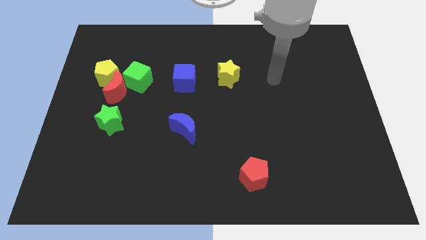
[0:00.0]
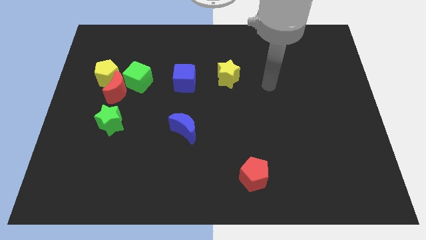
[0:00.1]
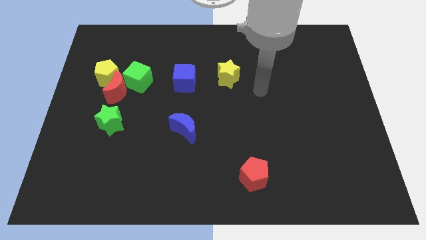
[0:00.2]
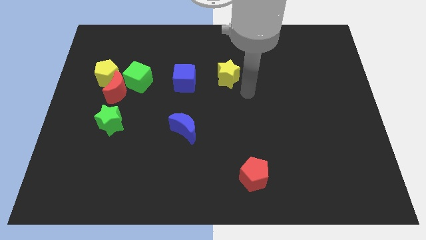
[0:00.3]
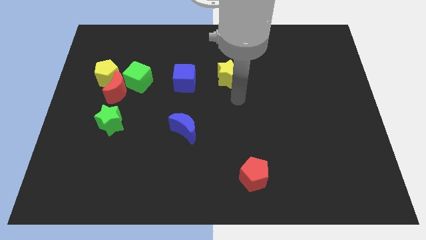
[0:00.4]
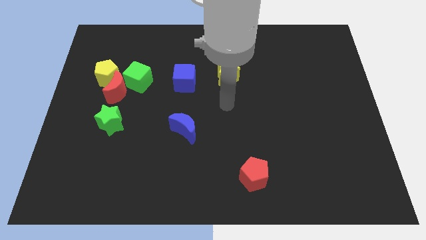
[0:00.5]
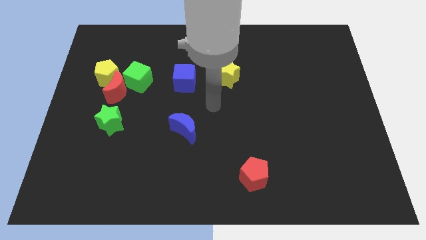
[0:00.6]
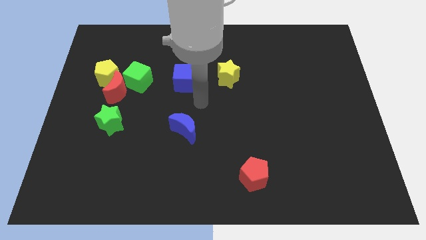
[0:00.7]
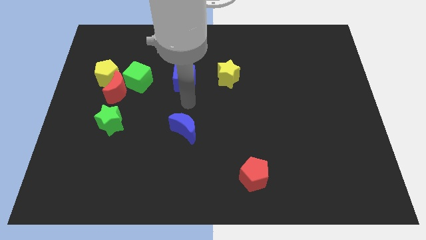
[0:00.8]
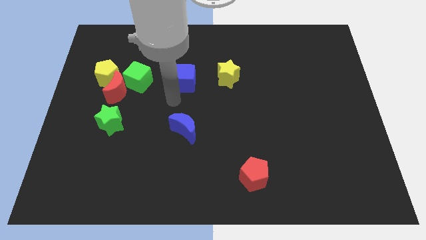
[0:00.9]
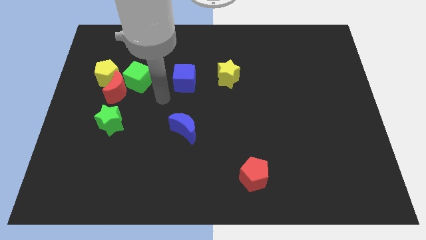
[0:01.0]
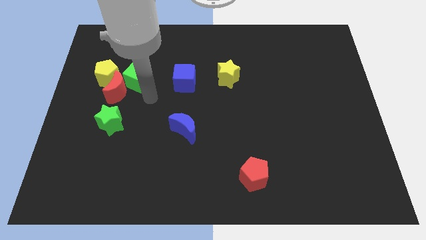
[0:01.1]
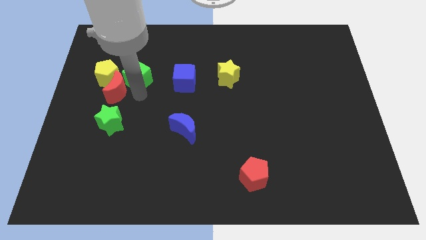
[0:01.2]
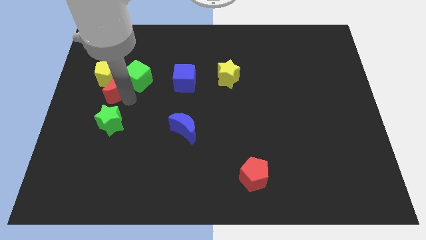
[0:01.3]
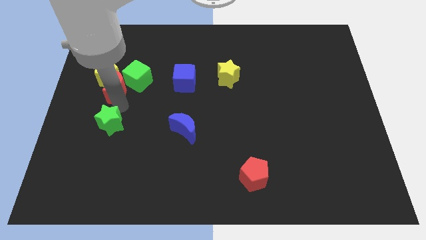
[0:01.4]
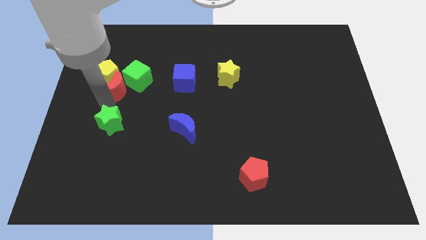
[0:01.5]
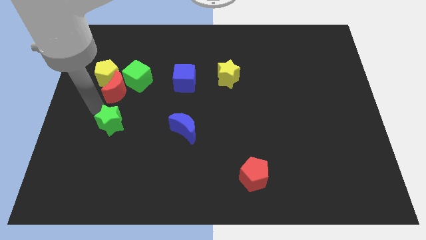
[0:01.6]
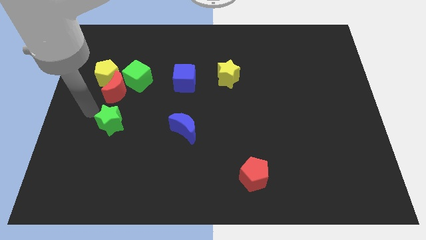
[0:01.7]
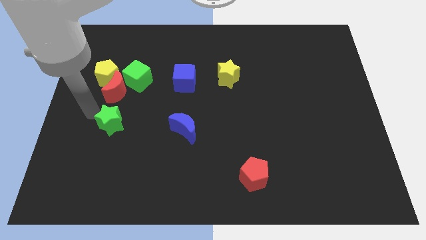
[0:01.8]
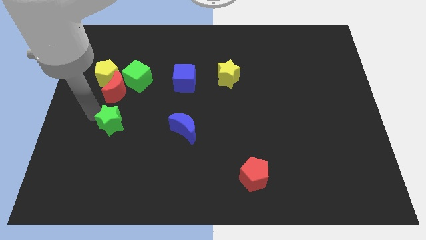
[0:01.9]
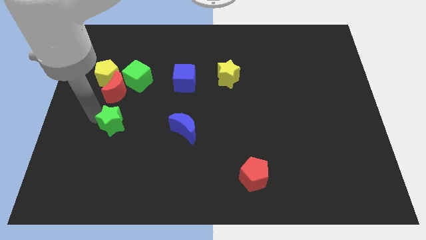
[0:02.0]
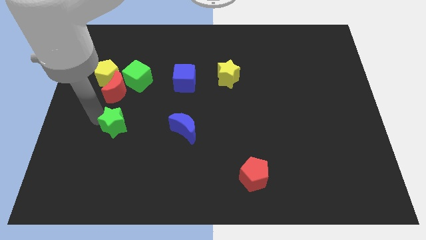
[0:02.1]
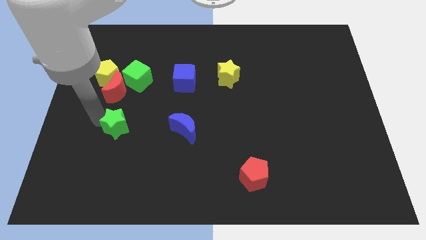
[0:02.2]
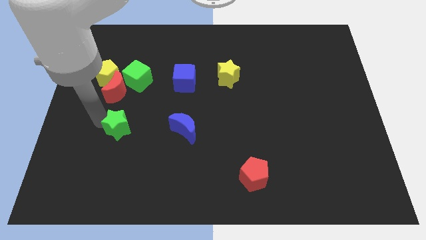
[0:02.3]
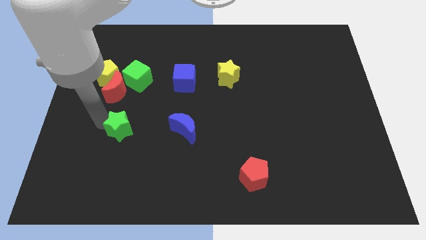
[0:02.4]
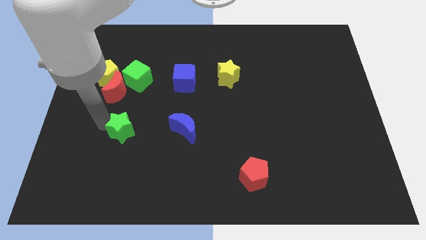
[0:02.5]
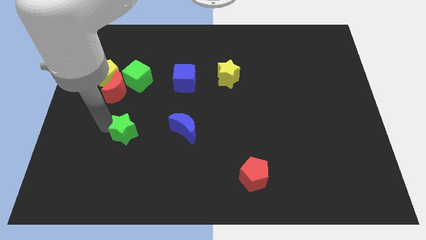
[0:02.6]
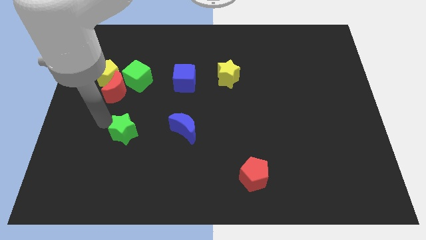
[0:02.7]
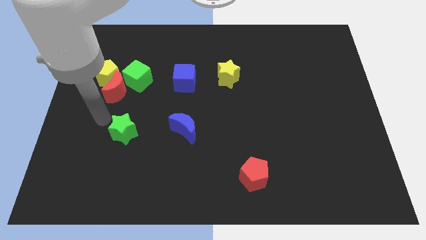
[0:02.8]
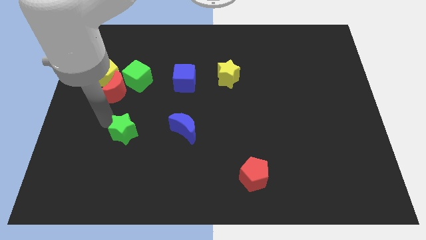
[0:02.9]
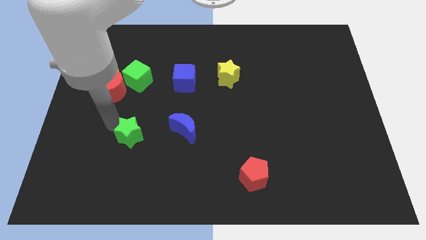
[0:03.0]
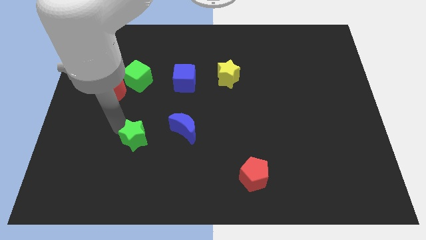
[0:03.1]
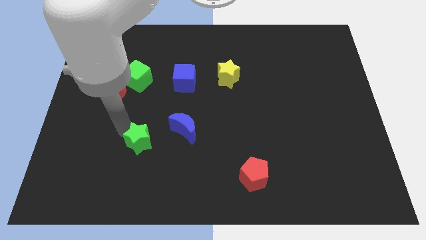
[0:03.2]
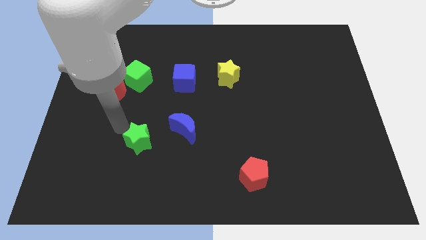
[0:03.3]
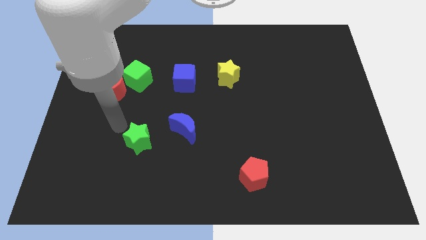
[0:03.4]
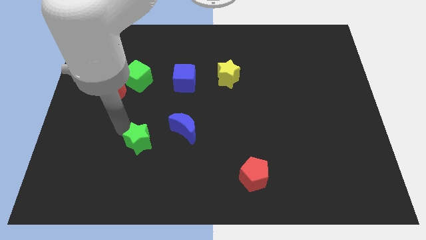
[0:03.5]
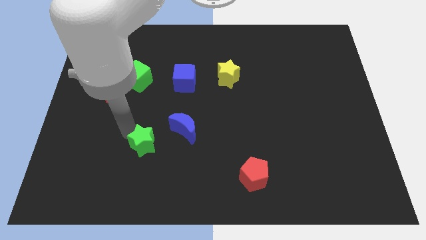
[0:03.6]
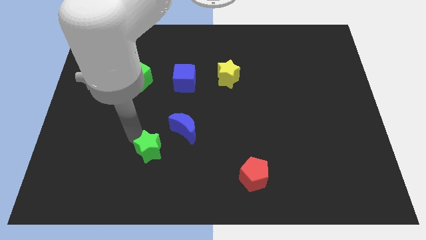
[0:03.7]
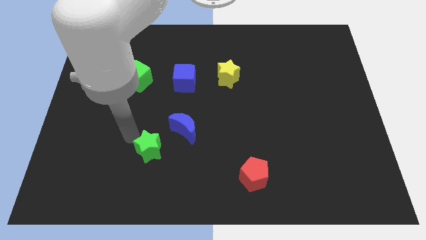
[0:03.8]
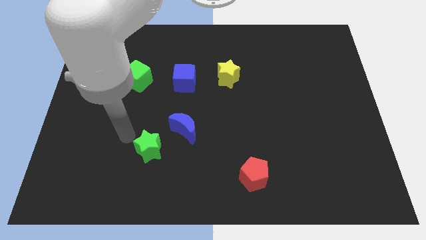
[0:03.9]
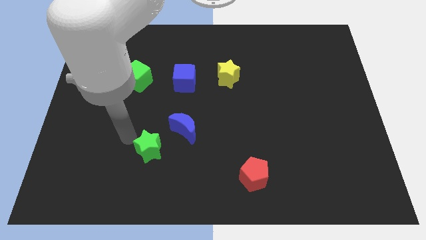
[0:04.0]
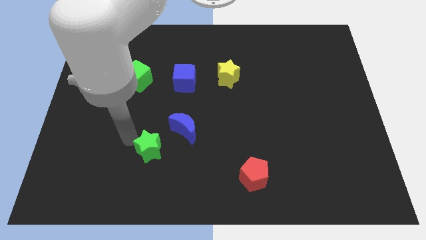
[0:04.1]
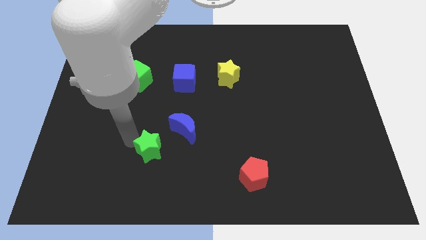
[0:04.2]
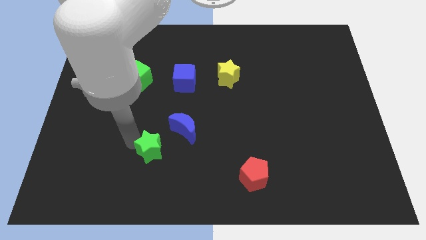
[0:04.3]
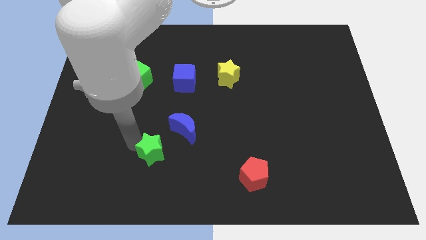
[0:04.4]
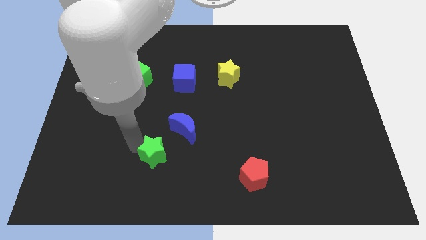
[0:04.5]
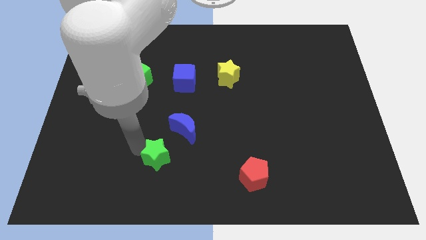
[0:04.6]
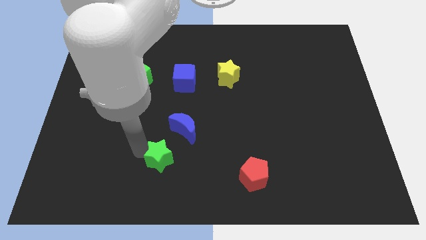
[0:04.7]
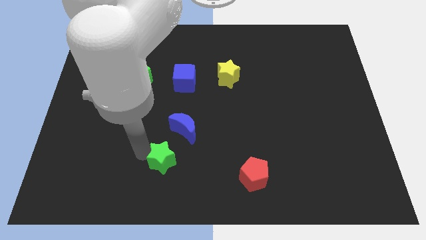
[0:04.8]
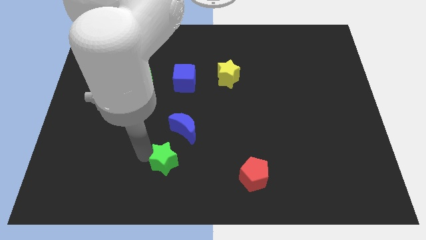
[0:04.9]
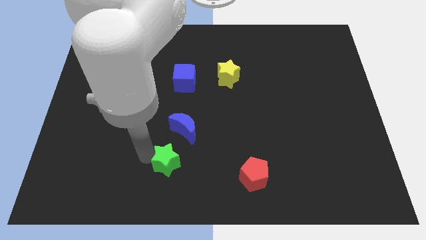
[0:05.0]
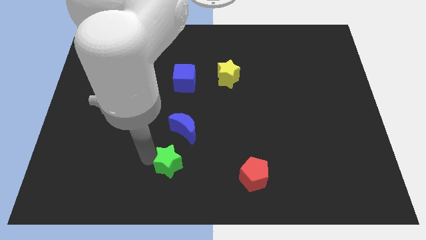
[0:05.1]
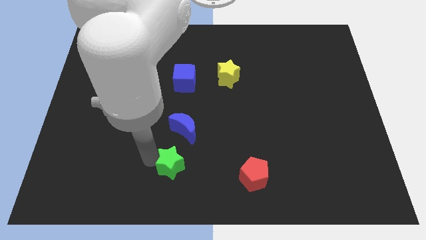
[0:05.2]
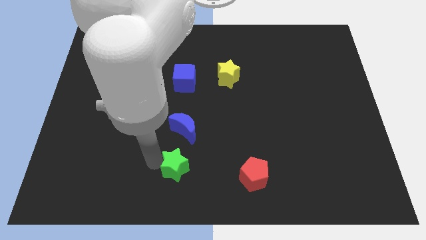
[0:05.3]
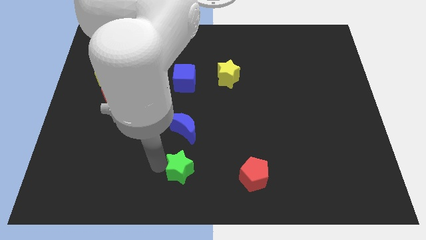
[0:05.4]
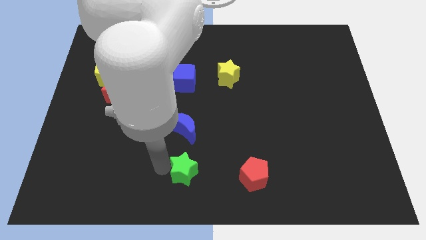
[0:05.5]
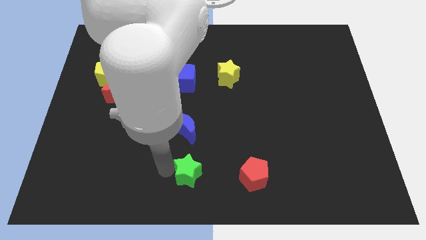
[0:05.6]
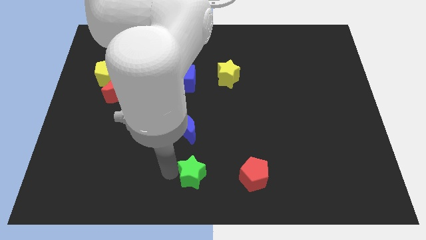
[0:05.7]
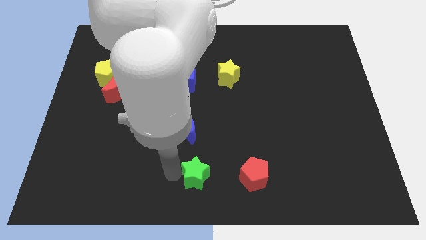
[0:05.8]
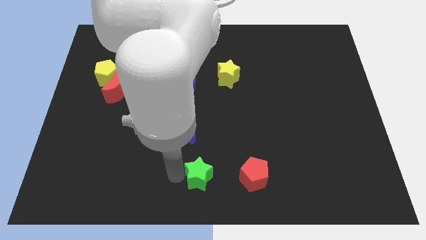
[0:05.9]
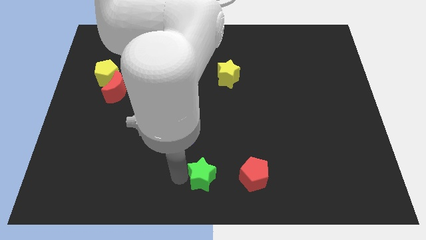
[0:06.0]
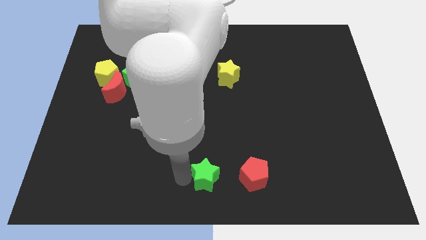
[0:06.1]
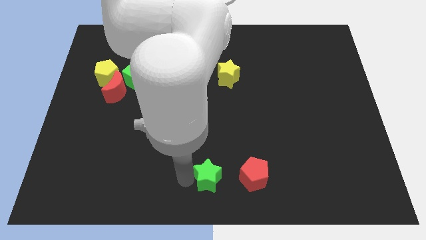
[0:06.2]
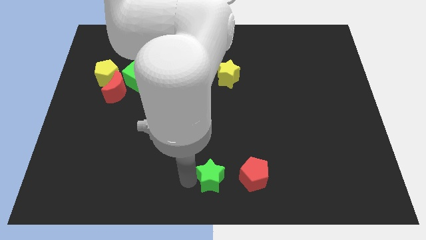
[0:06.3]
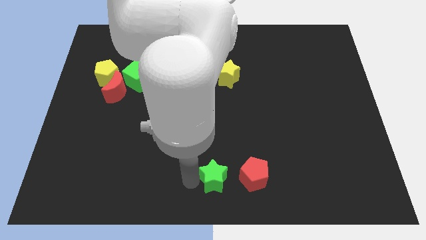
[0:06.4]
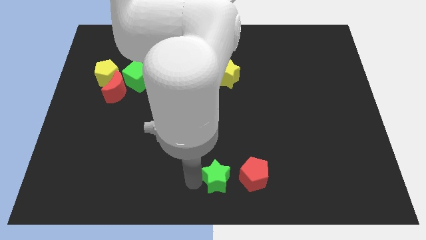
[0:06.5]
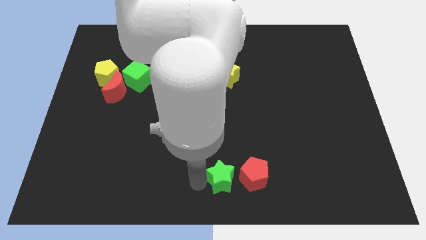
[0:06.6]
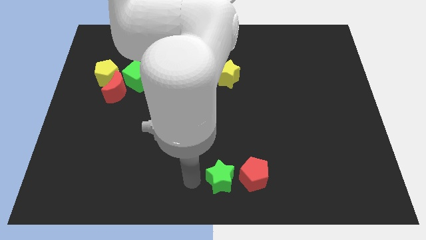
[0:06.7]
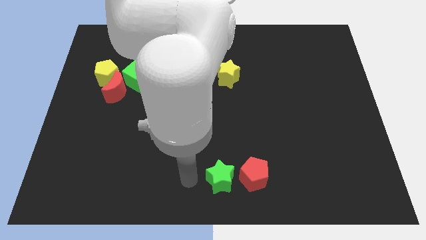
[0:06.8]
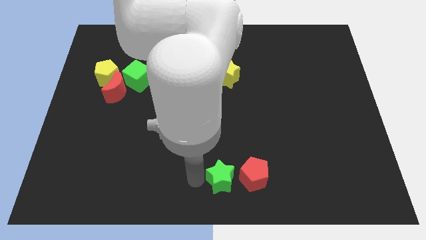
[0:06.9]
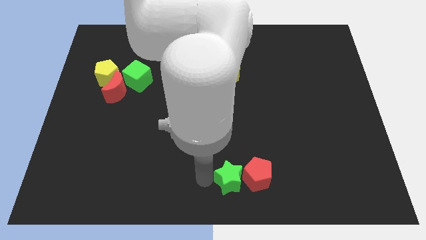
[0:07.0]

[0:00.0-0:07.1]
slide the green star close to the red pentagon

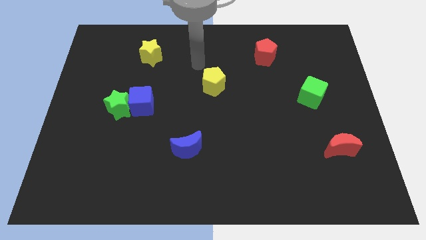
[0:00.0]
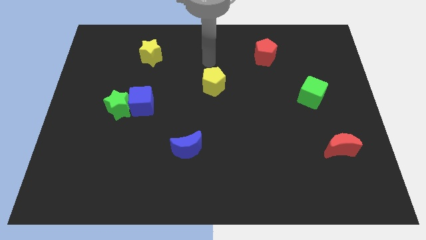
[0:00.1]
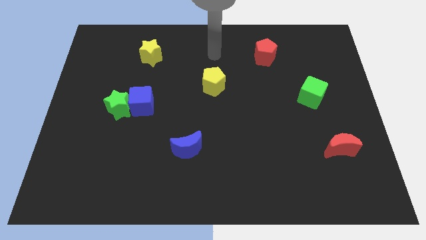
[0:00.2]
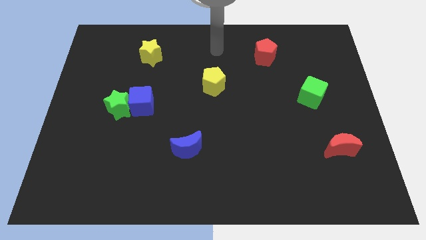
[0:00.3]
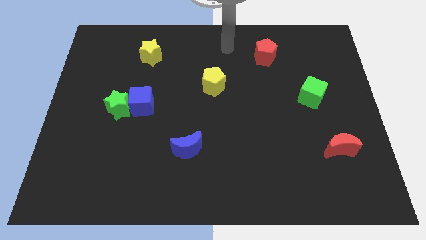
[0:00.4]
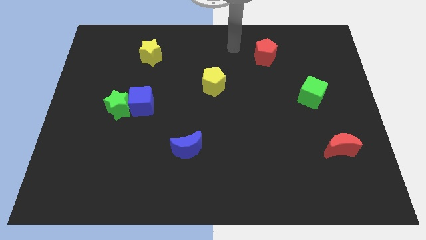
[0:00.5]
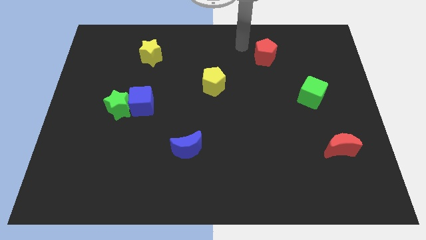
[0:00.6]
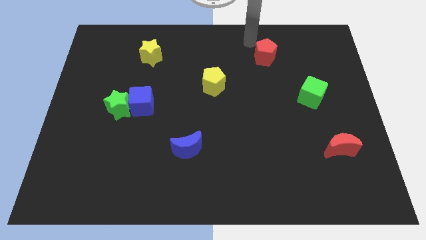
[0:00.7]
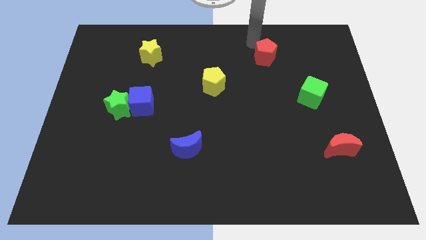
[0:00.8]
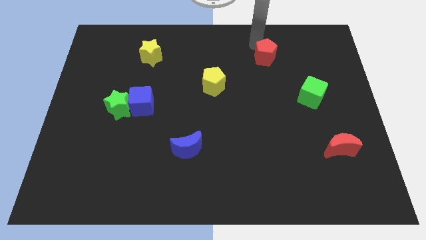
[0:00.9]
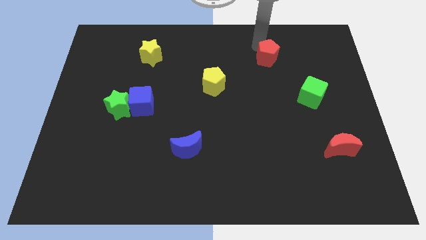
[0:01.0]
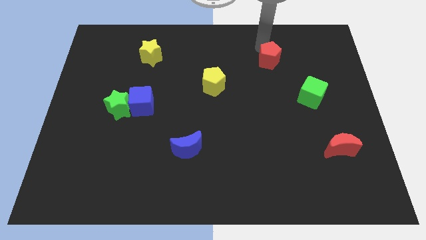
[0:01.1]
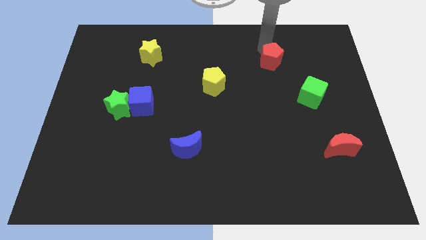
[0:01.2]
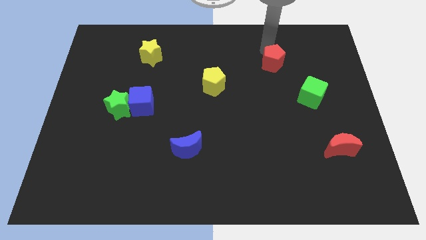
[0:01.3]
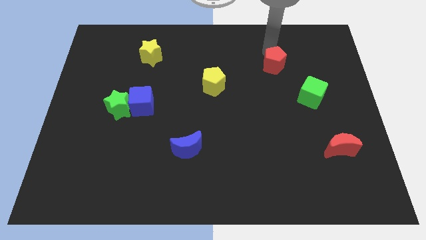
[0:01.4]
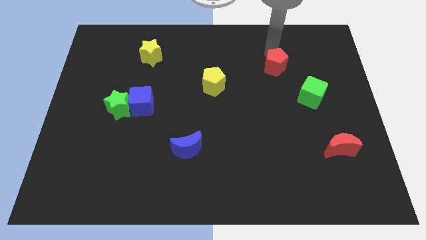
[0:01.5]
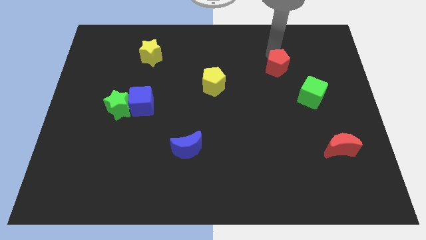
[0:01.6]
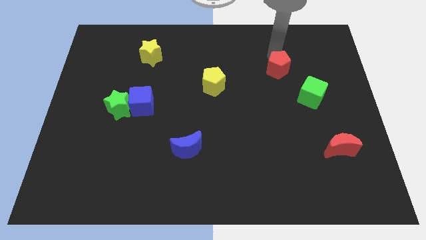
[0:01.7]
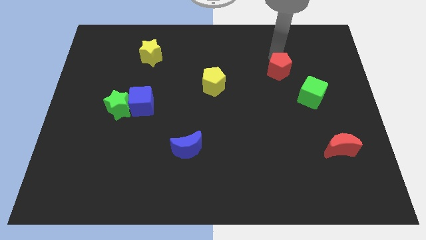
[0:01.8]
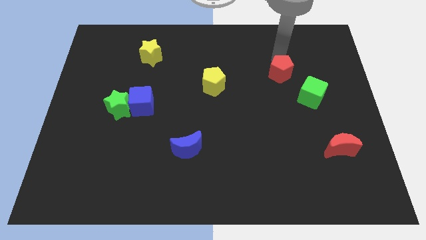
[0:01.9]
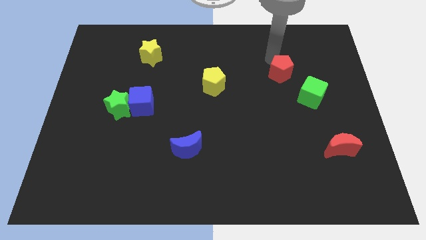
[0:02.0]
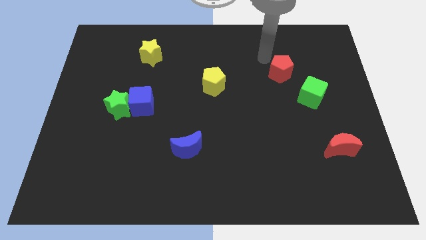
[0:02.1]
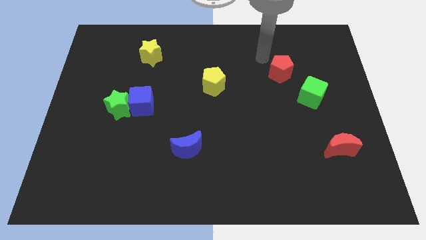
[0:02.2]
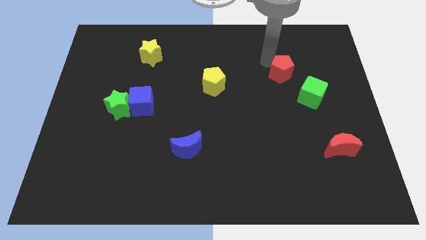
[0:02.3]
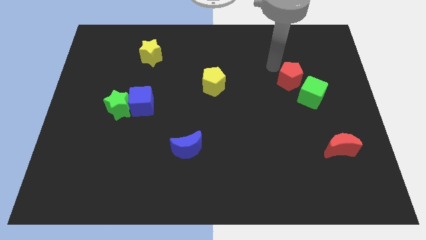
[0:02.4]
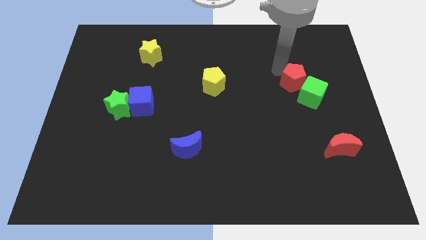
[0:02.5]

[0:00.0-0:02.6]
push the red pentagon close to the green cube
